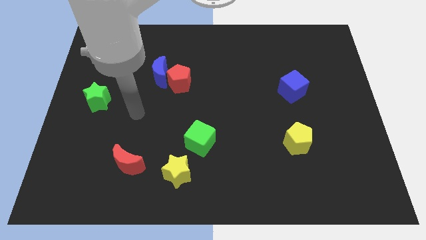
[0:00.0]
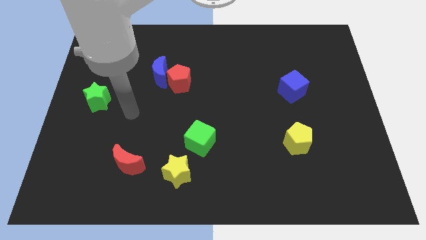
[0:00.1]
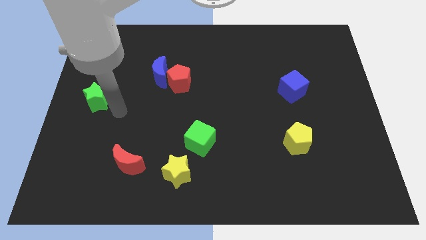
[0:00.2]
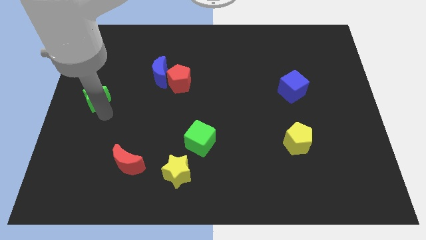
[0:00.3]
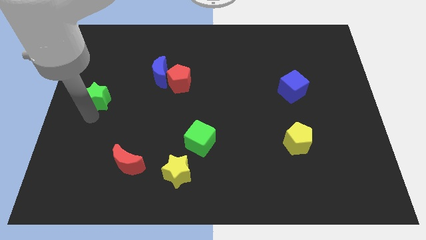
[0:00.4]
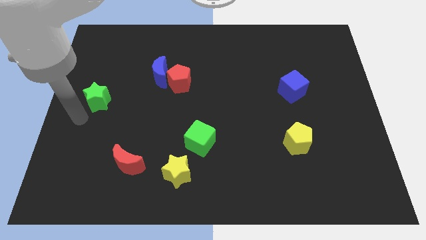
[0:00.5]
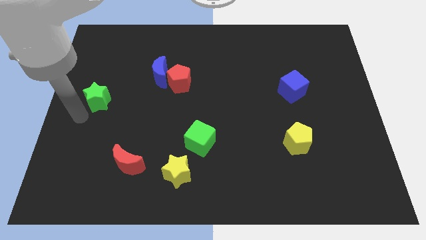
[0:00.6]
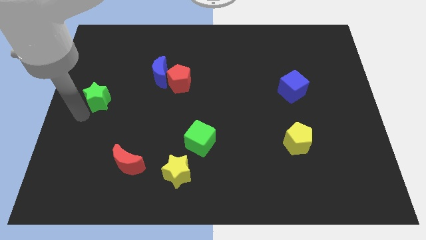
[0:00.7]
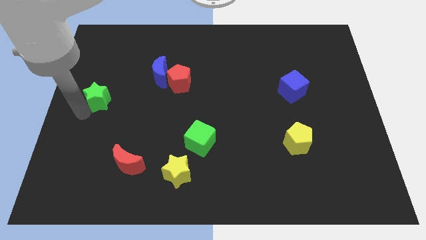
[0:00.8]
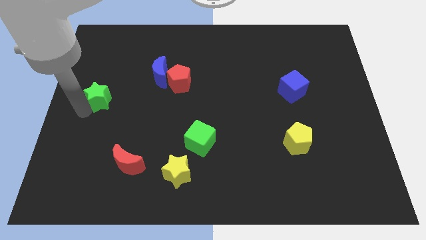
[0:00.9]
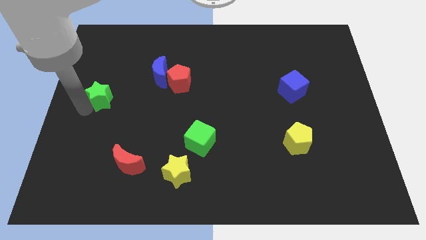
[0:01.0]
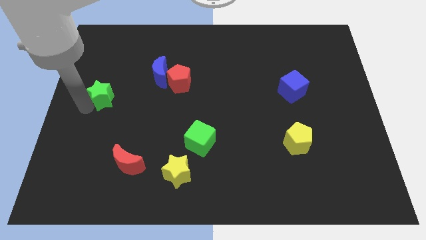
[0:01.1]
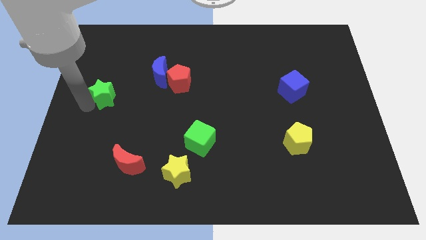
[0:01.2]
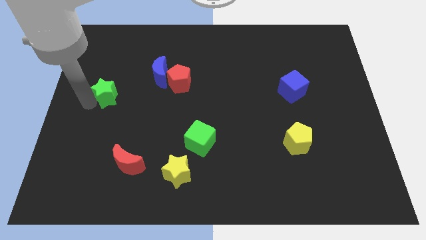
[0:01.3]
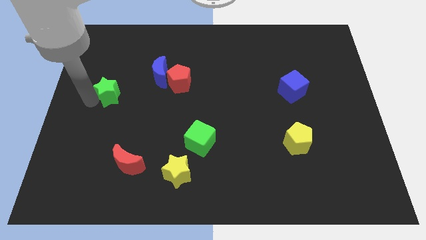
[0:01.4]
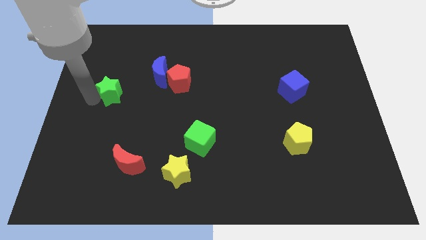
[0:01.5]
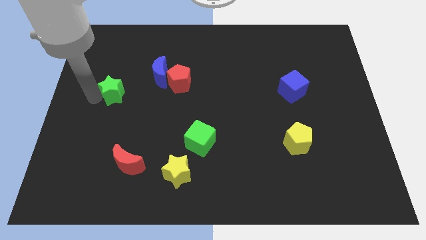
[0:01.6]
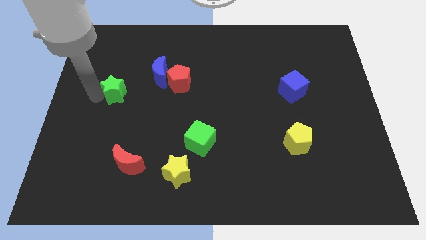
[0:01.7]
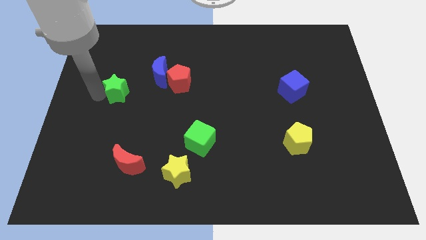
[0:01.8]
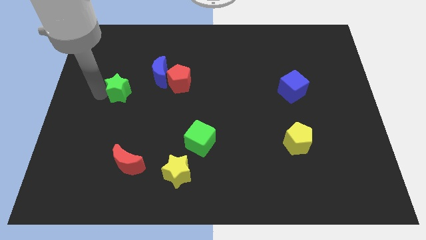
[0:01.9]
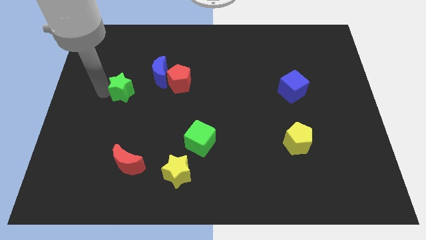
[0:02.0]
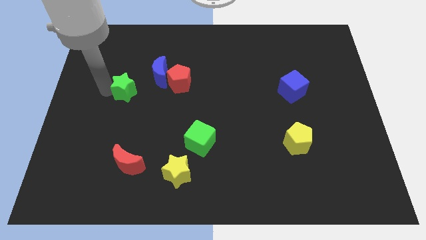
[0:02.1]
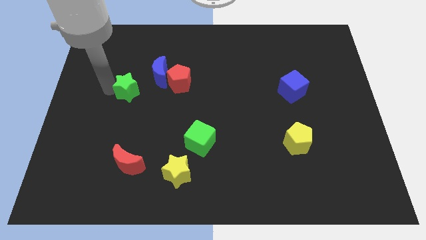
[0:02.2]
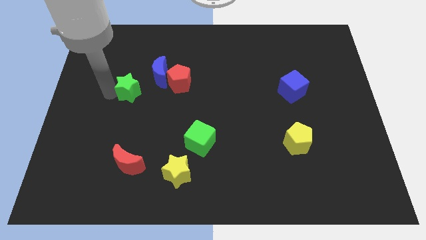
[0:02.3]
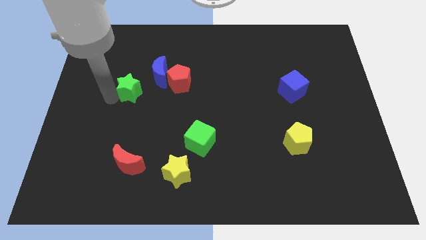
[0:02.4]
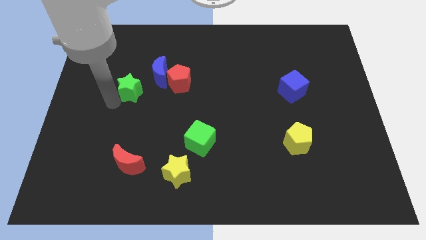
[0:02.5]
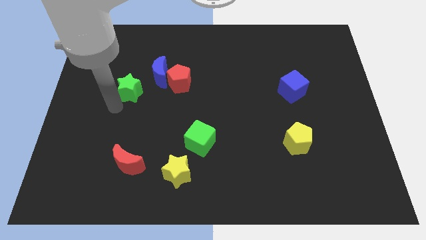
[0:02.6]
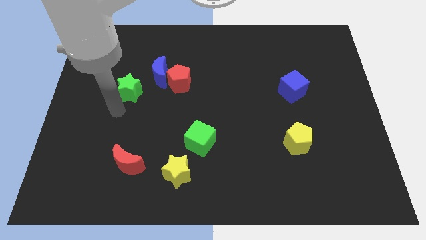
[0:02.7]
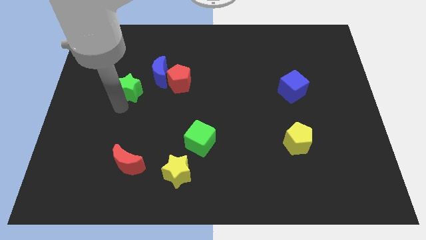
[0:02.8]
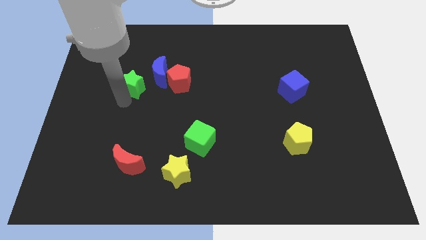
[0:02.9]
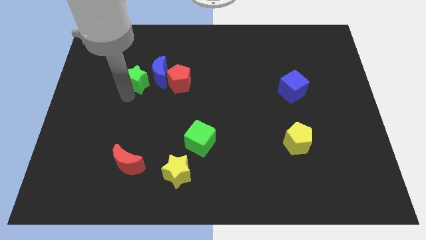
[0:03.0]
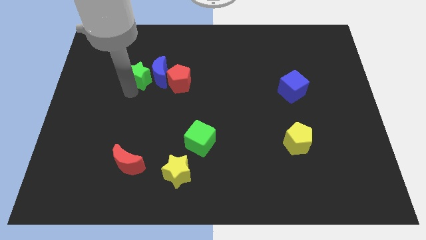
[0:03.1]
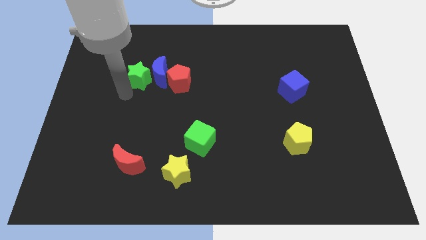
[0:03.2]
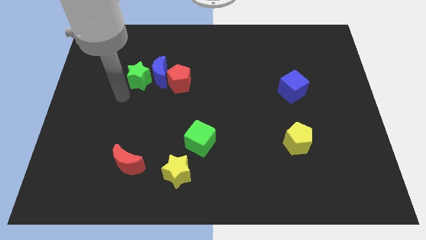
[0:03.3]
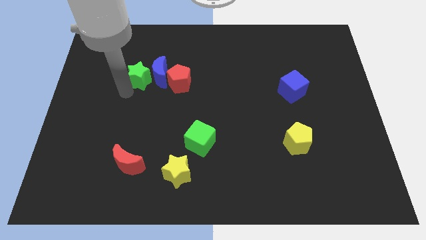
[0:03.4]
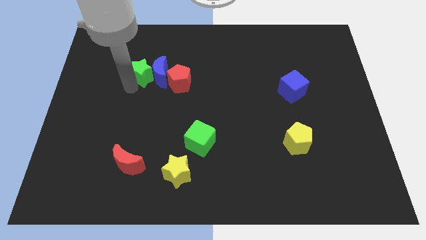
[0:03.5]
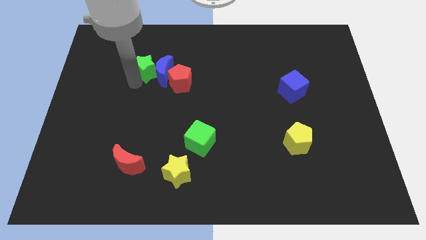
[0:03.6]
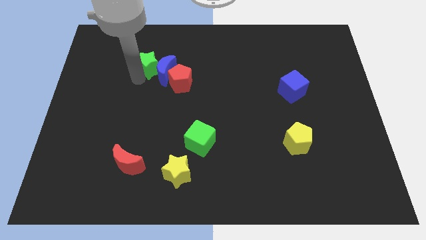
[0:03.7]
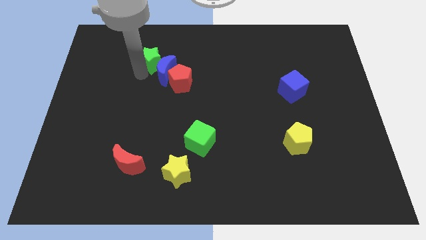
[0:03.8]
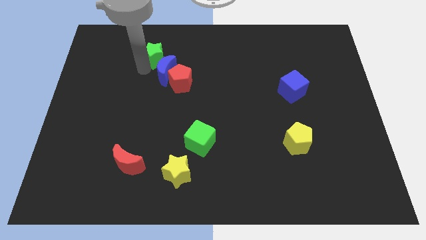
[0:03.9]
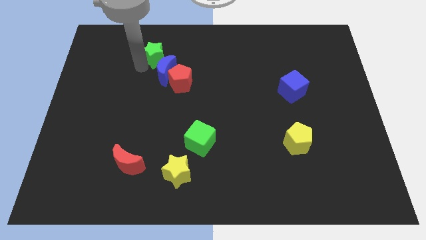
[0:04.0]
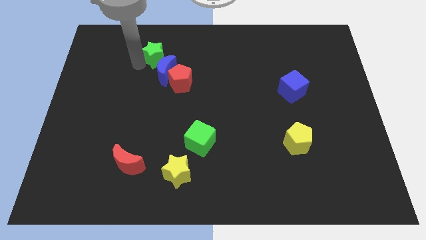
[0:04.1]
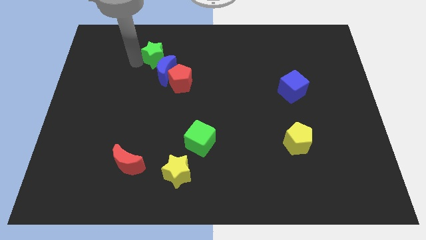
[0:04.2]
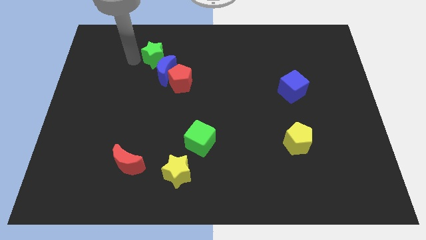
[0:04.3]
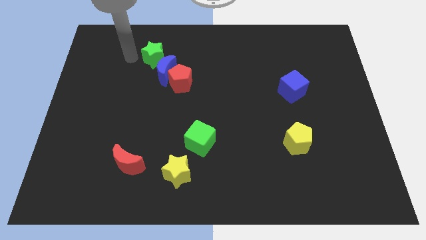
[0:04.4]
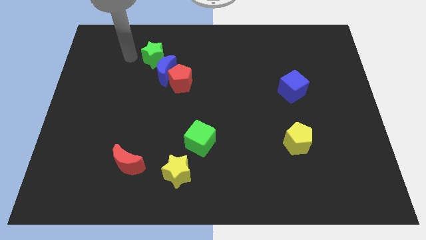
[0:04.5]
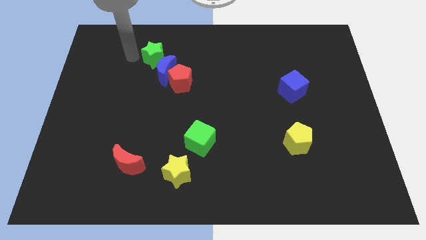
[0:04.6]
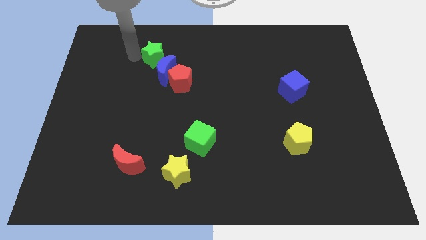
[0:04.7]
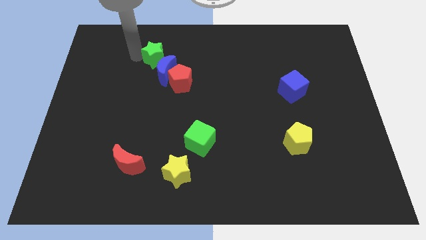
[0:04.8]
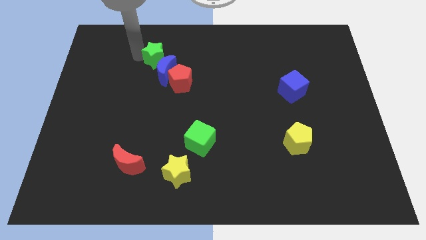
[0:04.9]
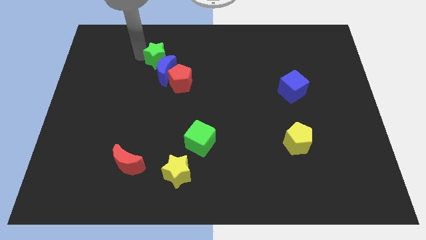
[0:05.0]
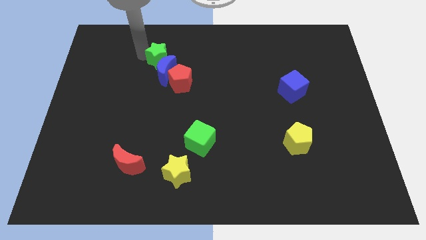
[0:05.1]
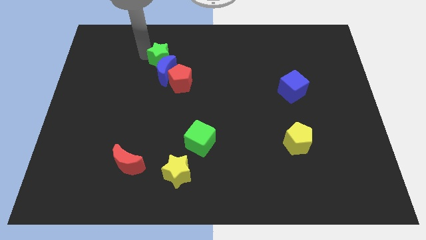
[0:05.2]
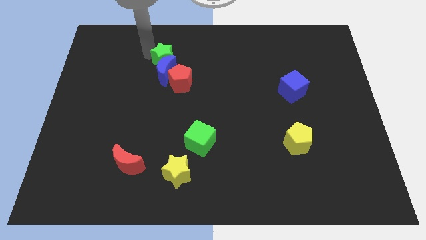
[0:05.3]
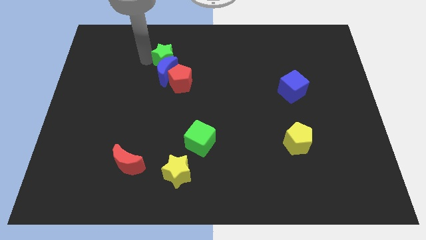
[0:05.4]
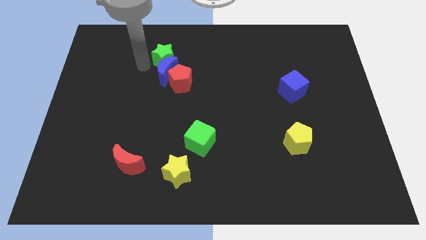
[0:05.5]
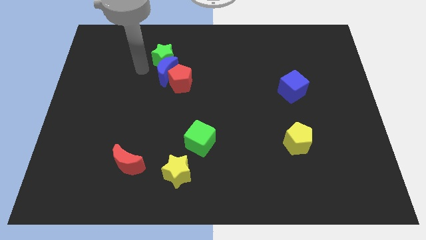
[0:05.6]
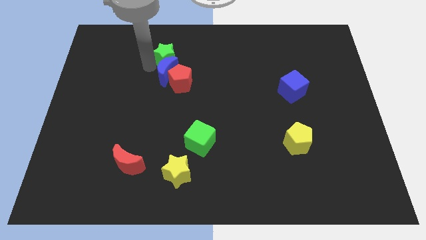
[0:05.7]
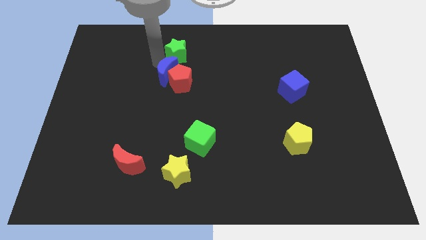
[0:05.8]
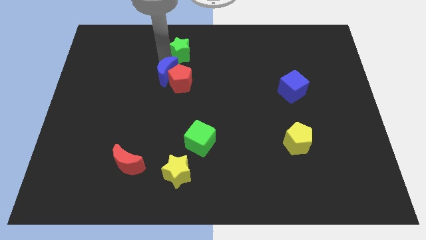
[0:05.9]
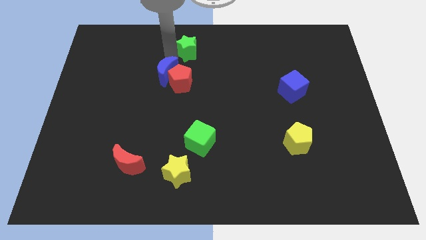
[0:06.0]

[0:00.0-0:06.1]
move the green star to the top

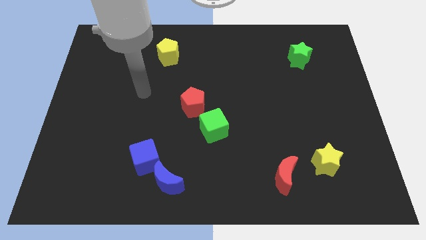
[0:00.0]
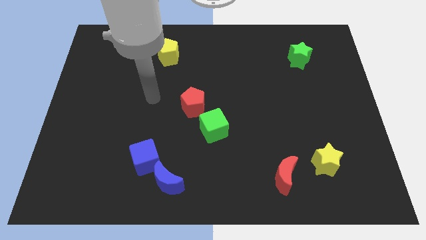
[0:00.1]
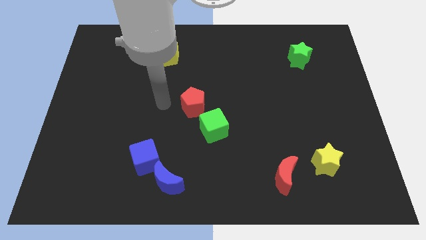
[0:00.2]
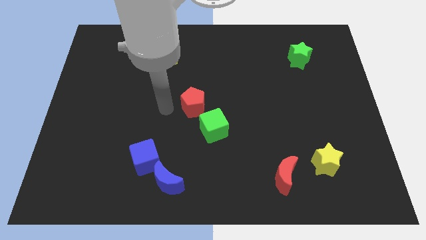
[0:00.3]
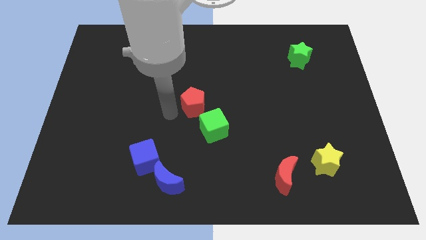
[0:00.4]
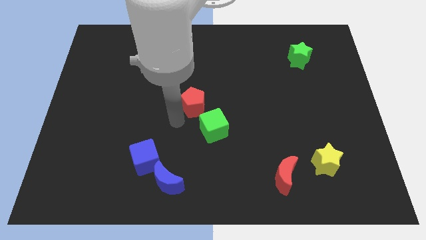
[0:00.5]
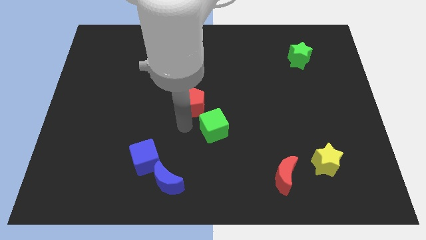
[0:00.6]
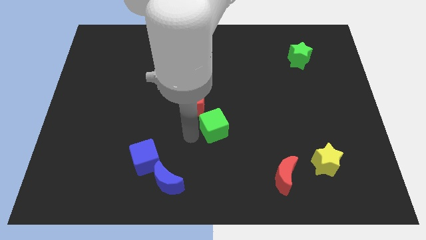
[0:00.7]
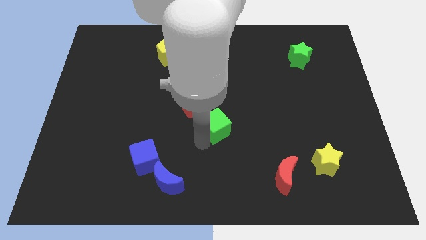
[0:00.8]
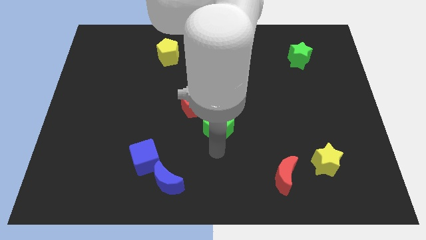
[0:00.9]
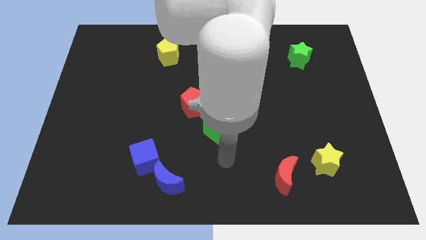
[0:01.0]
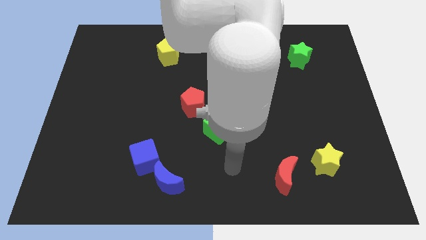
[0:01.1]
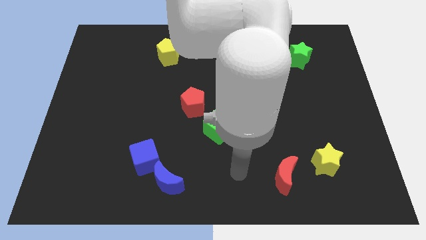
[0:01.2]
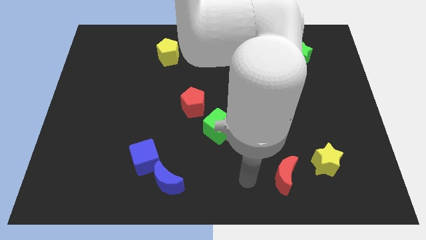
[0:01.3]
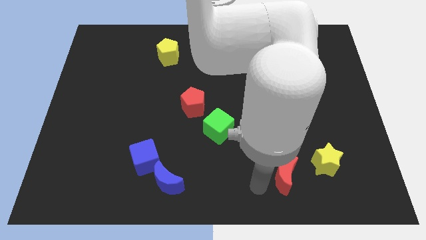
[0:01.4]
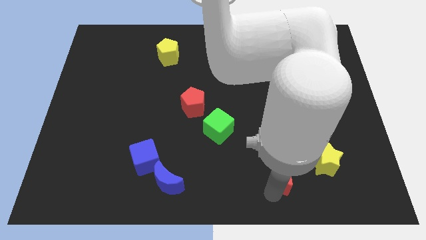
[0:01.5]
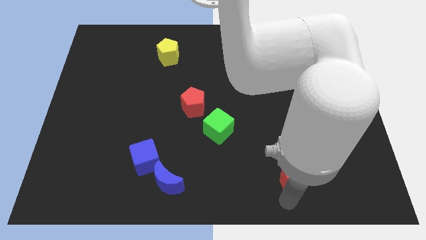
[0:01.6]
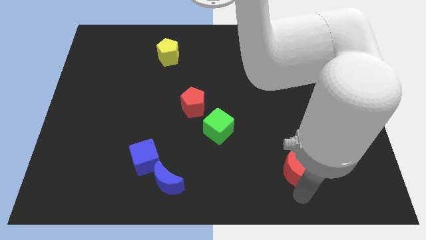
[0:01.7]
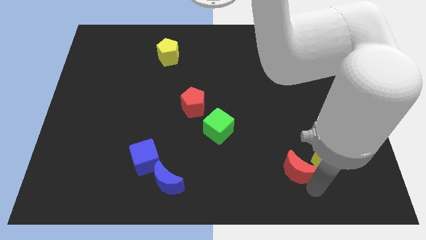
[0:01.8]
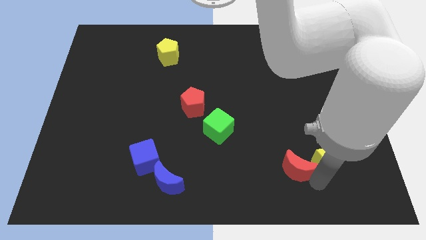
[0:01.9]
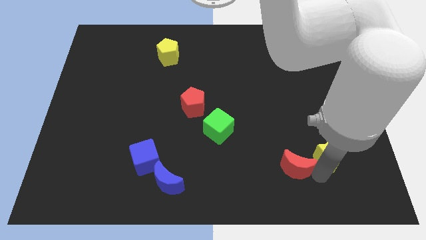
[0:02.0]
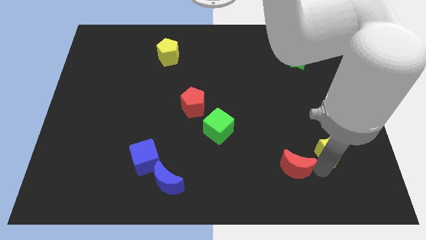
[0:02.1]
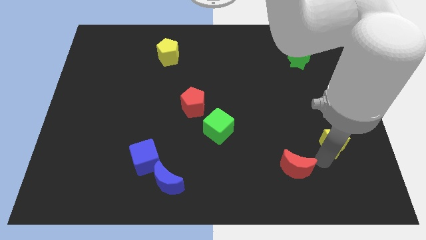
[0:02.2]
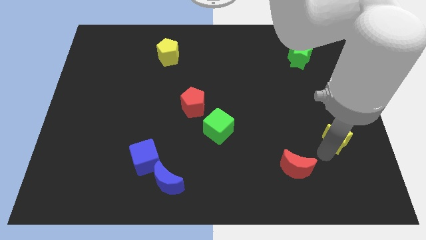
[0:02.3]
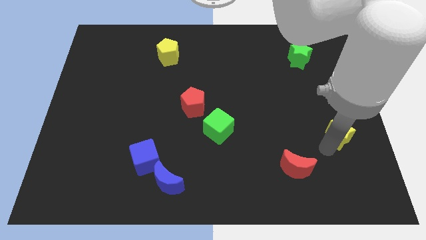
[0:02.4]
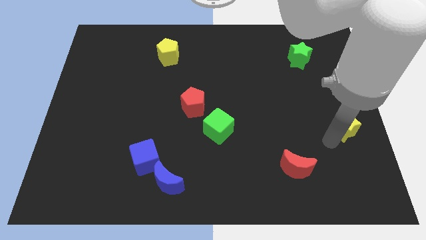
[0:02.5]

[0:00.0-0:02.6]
put the yellow star to the right side
